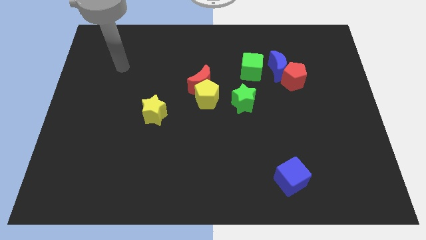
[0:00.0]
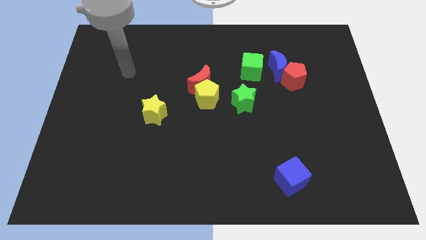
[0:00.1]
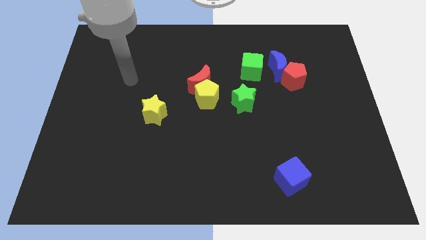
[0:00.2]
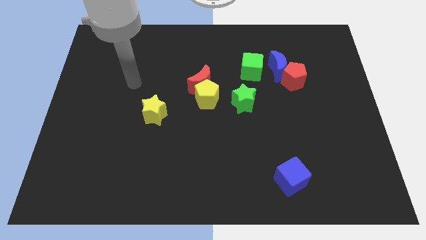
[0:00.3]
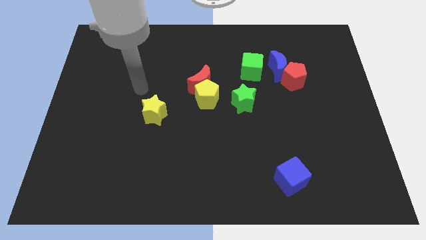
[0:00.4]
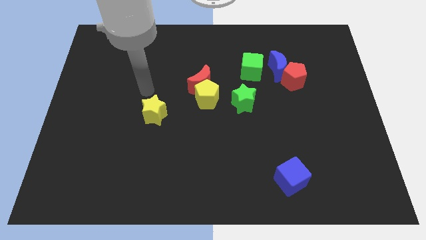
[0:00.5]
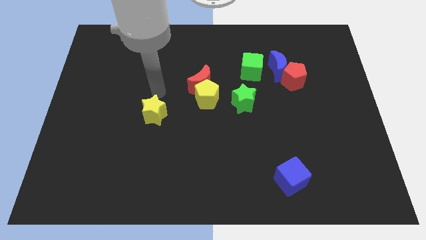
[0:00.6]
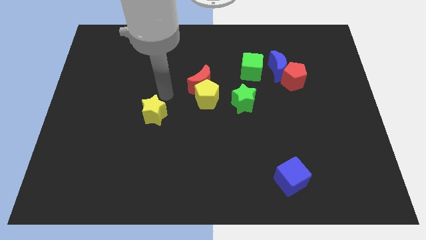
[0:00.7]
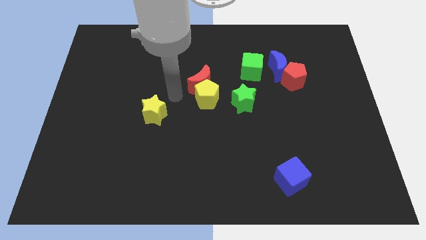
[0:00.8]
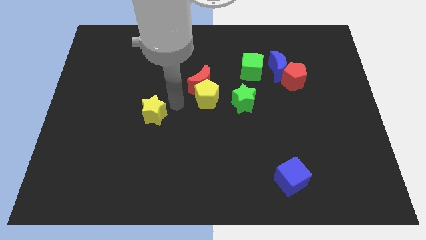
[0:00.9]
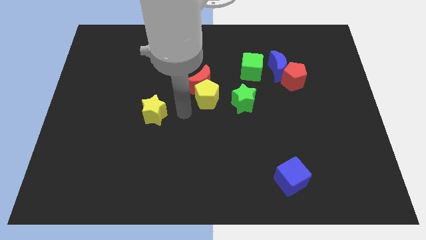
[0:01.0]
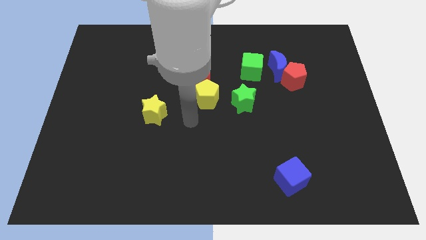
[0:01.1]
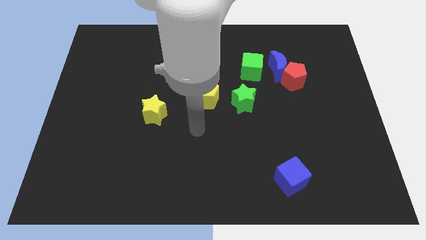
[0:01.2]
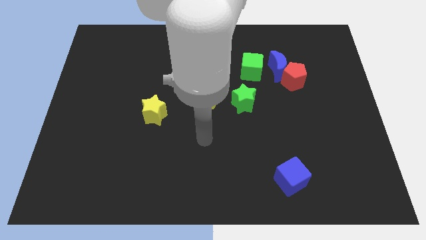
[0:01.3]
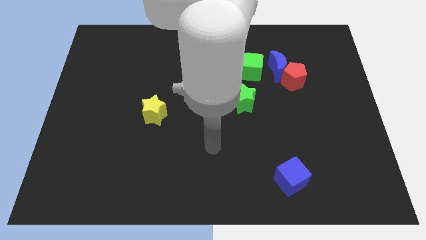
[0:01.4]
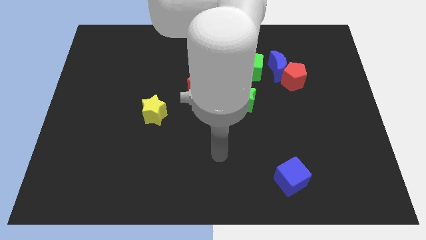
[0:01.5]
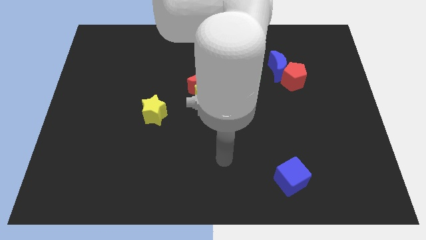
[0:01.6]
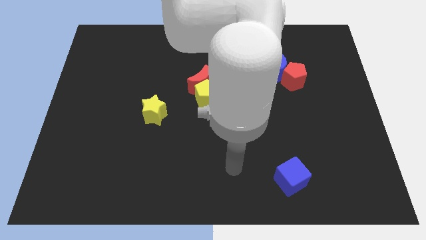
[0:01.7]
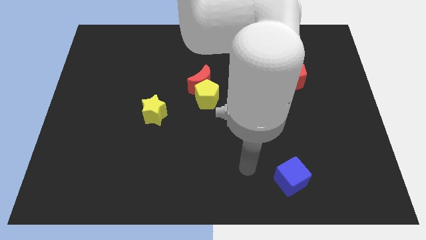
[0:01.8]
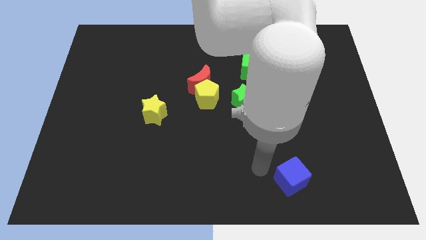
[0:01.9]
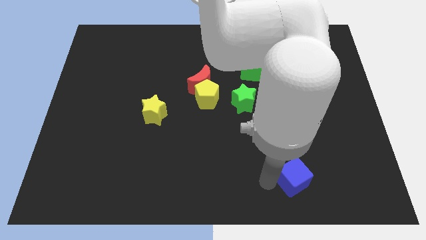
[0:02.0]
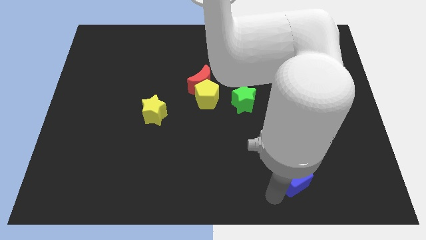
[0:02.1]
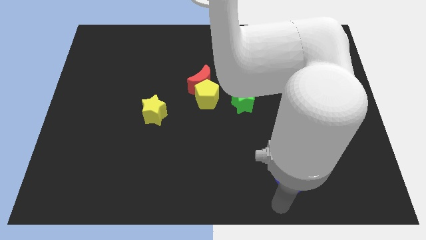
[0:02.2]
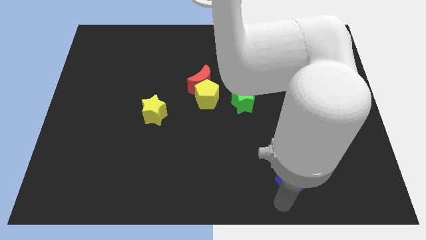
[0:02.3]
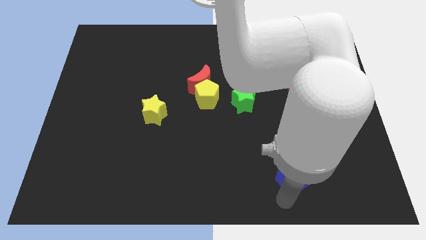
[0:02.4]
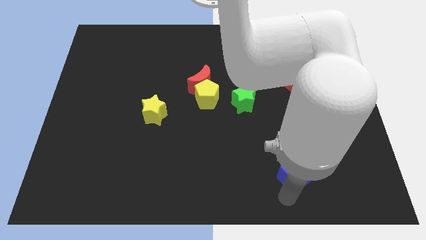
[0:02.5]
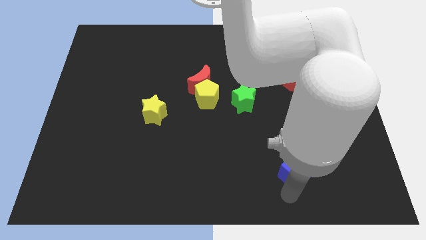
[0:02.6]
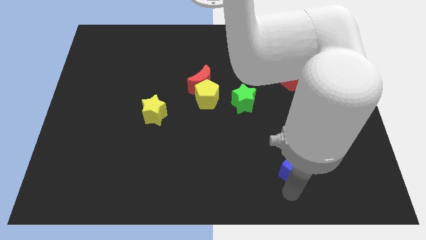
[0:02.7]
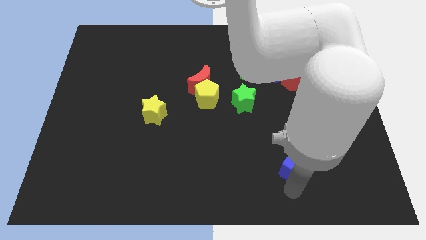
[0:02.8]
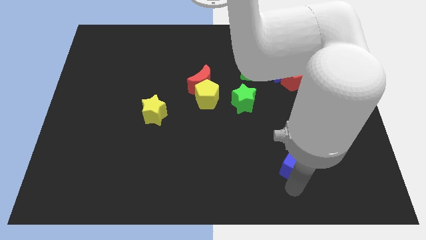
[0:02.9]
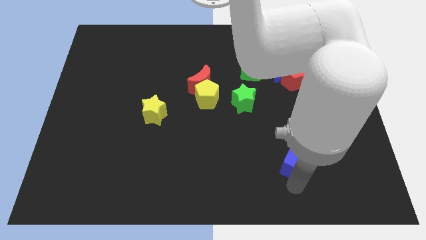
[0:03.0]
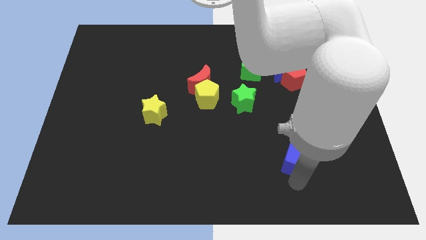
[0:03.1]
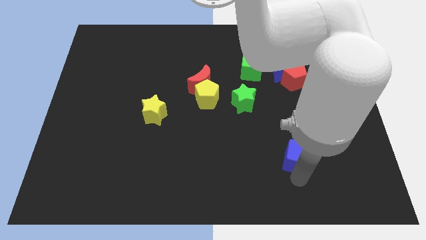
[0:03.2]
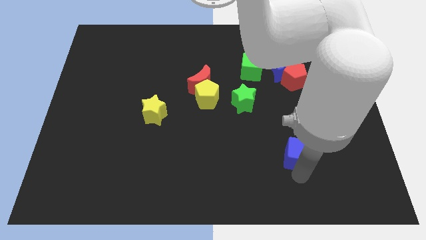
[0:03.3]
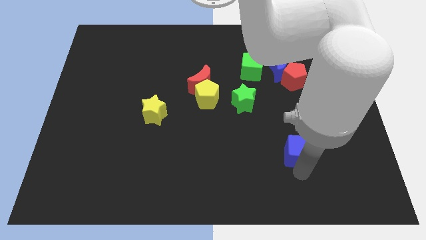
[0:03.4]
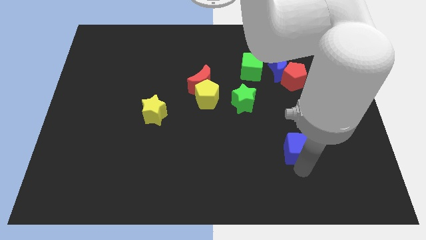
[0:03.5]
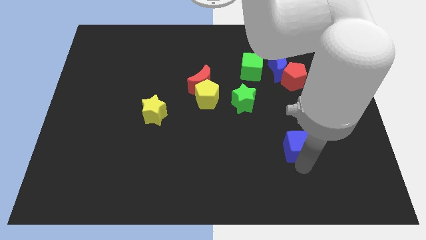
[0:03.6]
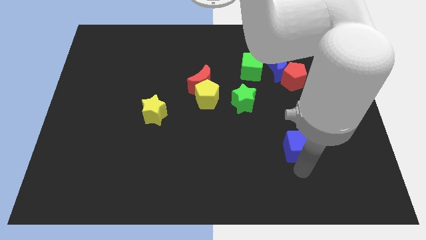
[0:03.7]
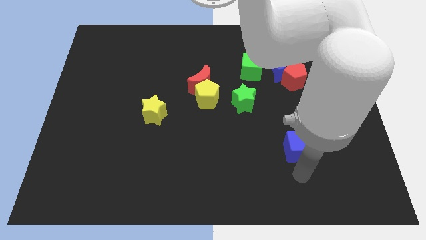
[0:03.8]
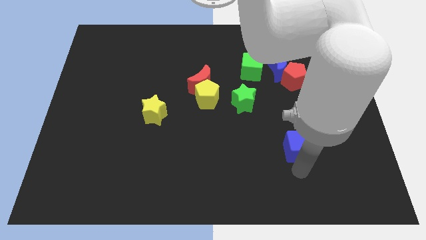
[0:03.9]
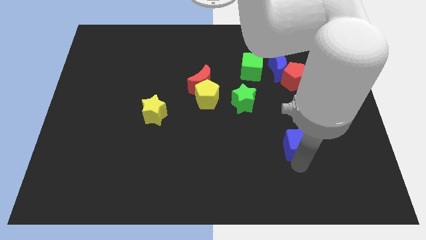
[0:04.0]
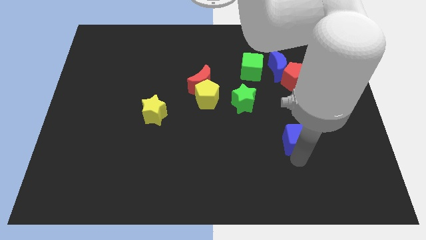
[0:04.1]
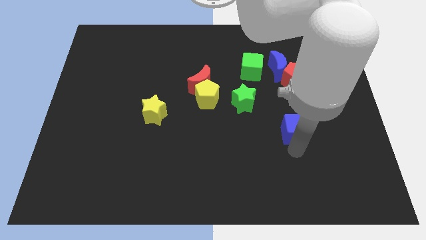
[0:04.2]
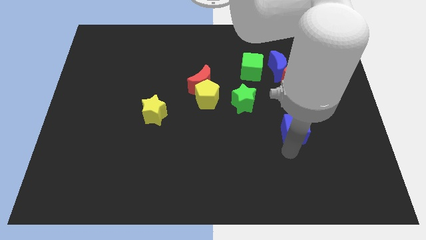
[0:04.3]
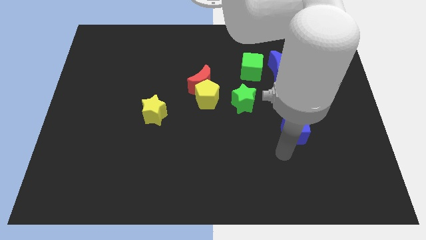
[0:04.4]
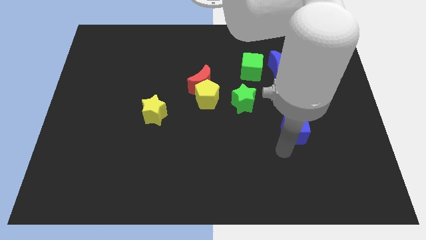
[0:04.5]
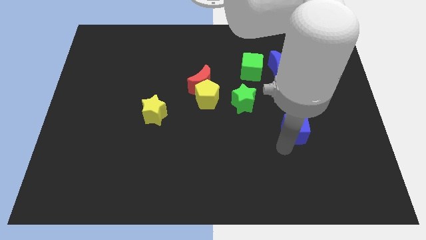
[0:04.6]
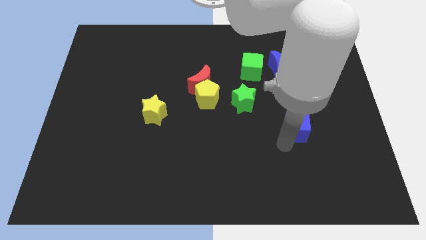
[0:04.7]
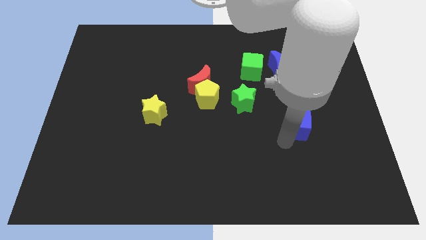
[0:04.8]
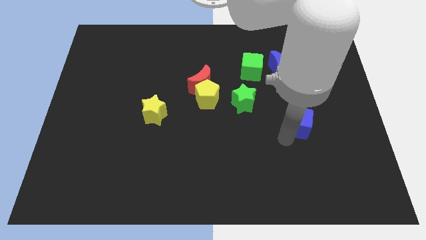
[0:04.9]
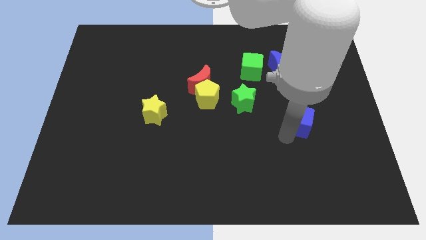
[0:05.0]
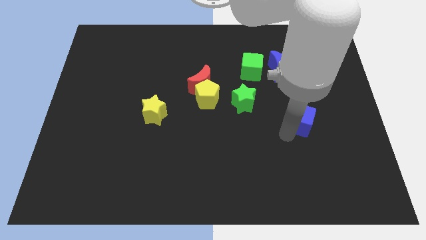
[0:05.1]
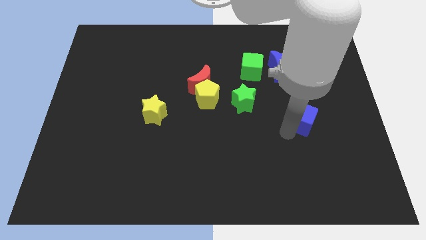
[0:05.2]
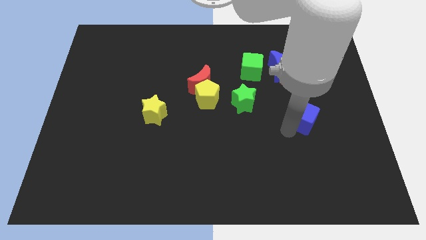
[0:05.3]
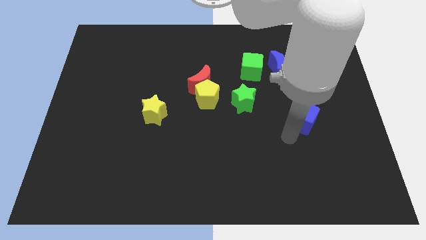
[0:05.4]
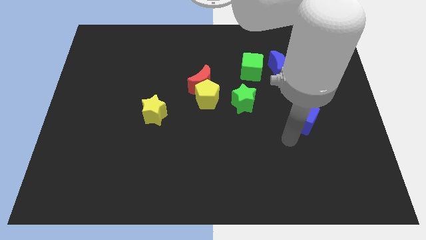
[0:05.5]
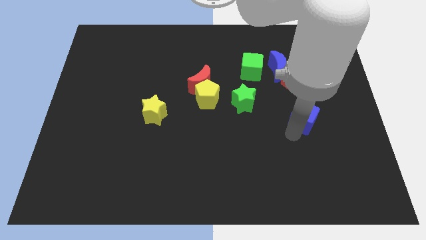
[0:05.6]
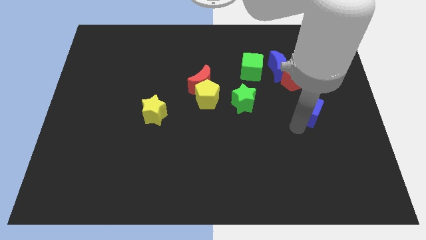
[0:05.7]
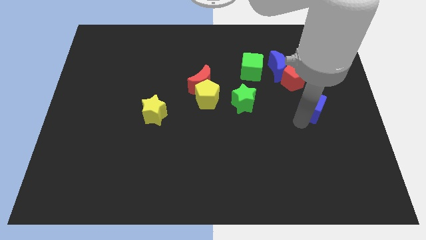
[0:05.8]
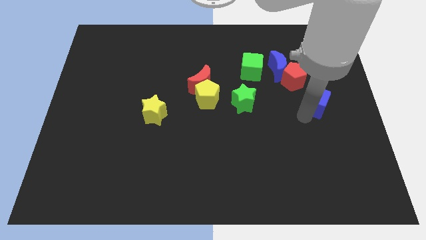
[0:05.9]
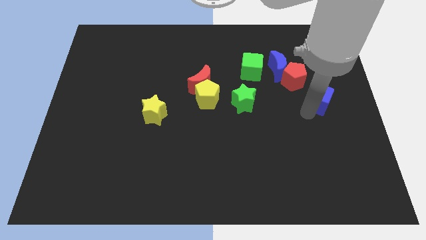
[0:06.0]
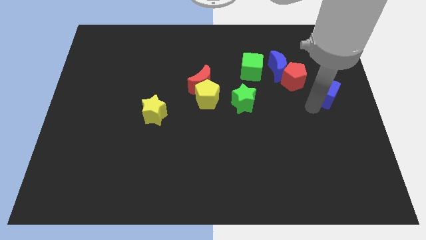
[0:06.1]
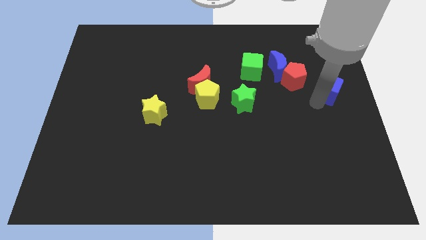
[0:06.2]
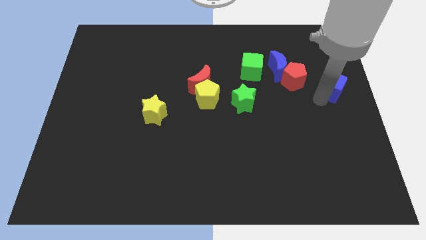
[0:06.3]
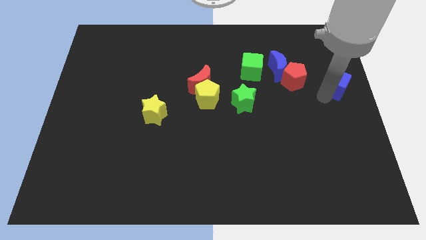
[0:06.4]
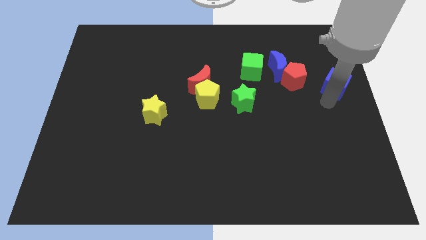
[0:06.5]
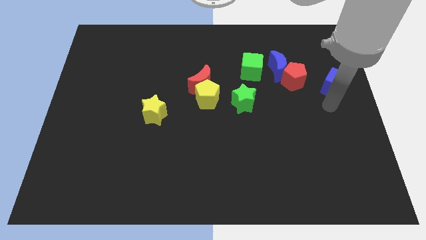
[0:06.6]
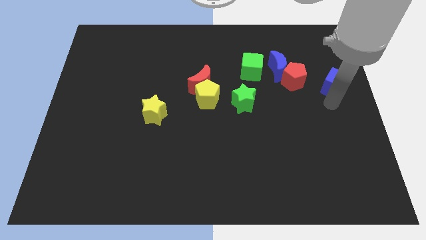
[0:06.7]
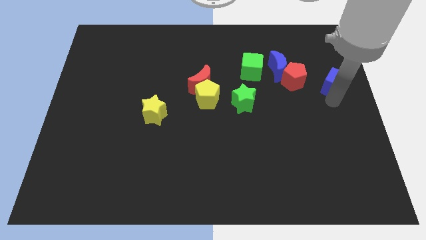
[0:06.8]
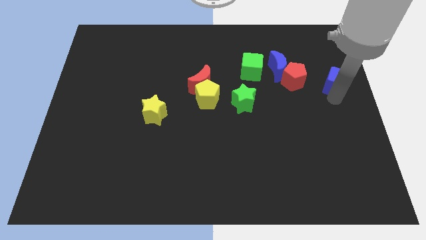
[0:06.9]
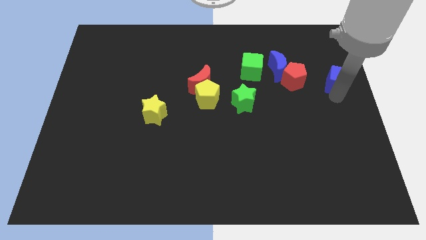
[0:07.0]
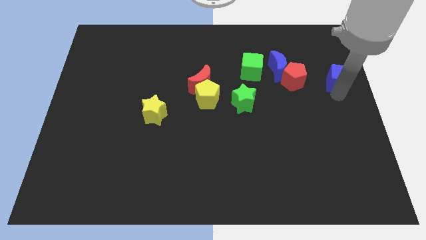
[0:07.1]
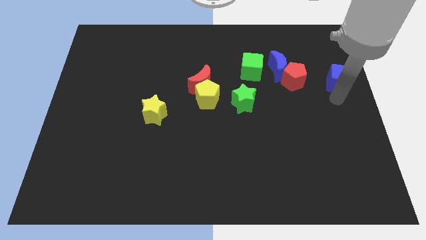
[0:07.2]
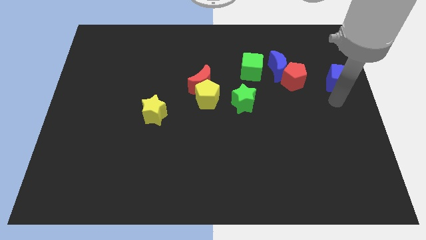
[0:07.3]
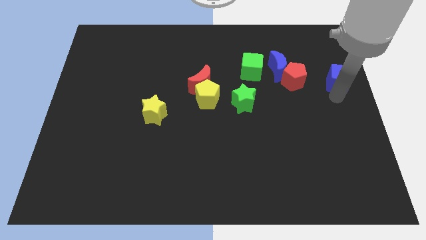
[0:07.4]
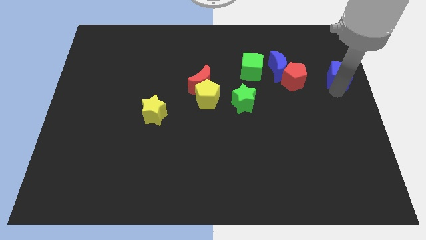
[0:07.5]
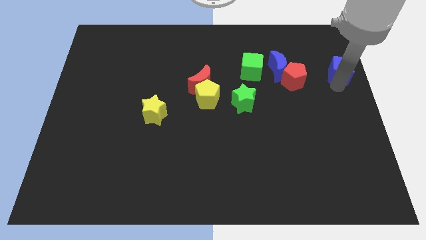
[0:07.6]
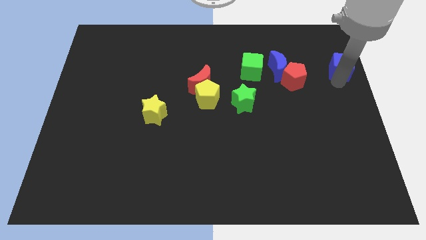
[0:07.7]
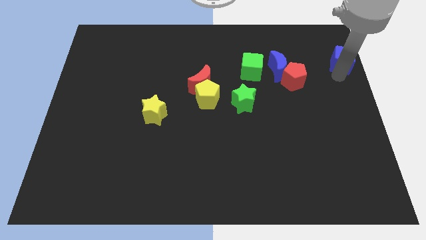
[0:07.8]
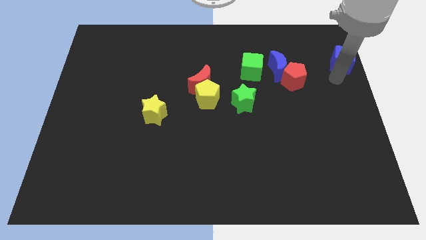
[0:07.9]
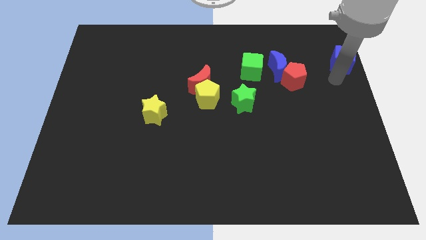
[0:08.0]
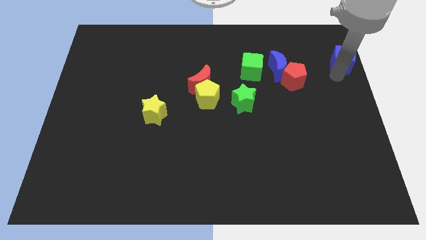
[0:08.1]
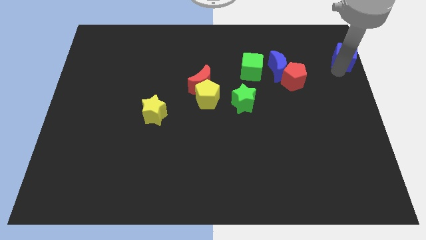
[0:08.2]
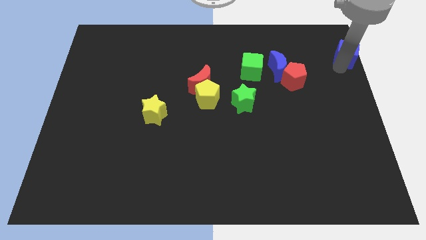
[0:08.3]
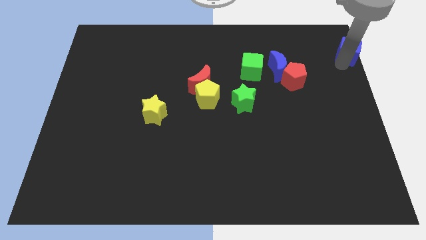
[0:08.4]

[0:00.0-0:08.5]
push the blue cube to the upper right corner
